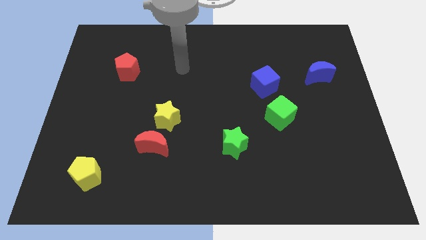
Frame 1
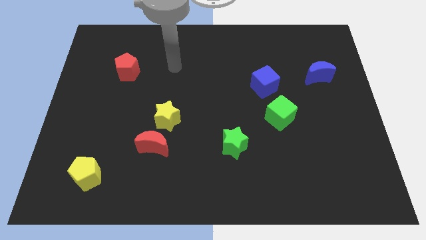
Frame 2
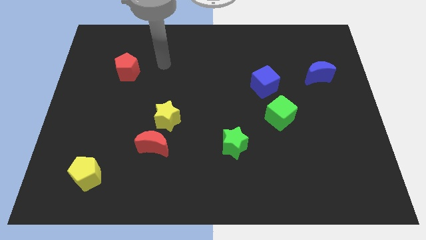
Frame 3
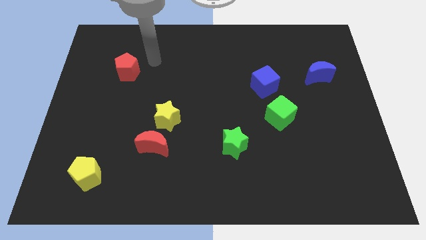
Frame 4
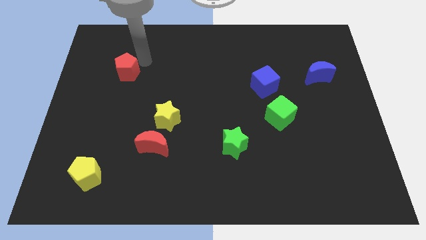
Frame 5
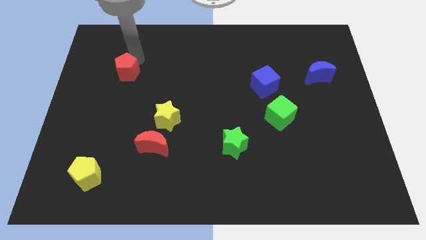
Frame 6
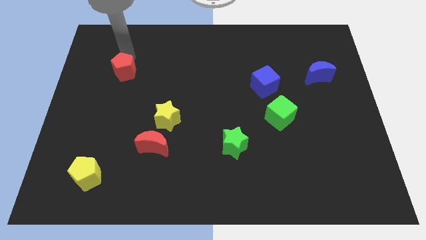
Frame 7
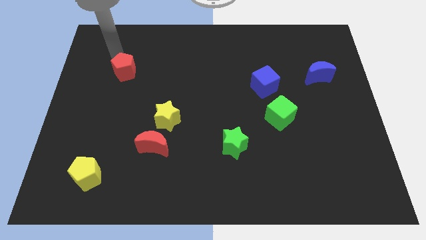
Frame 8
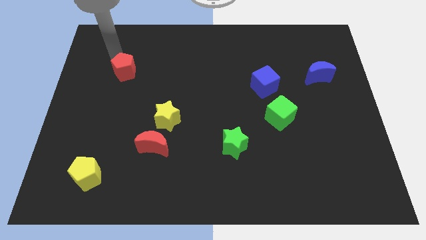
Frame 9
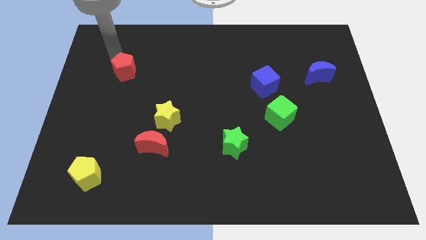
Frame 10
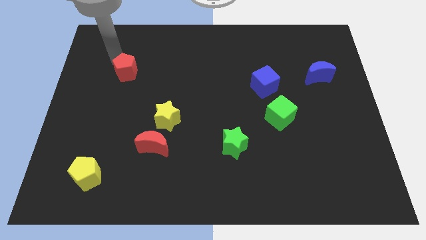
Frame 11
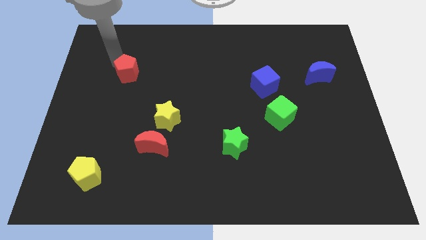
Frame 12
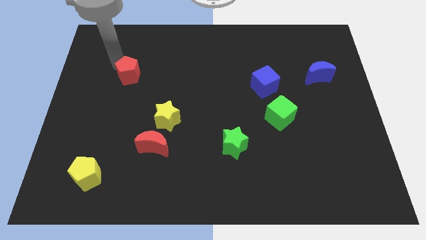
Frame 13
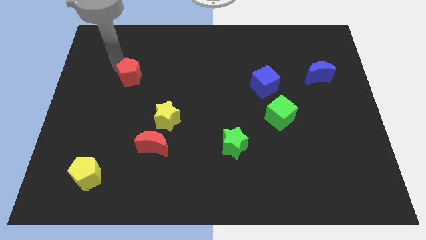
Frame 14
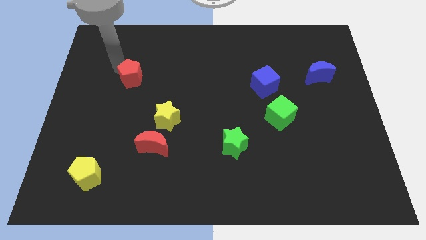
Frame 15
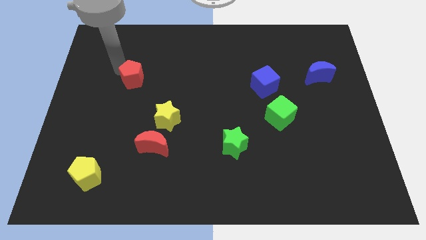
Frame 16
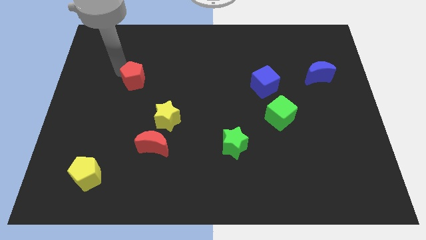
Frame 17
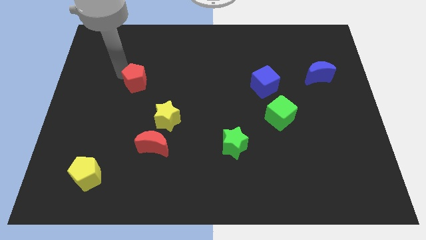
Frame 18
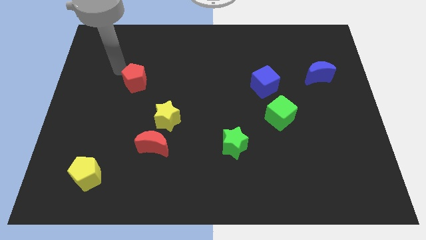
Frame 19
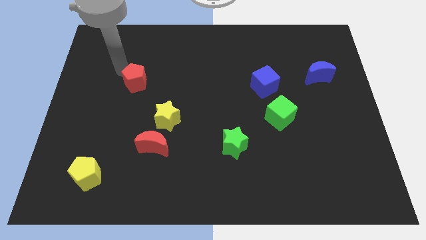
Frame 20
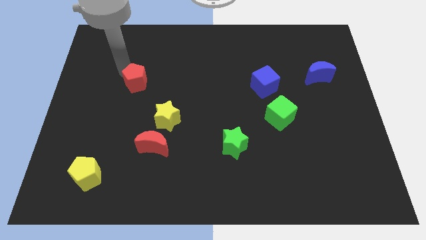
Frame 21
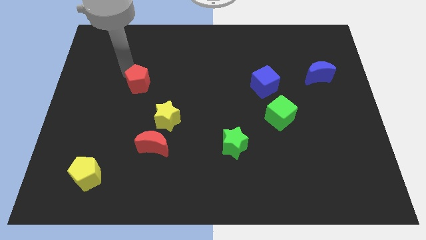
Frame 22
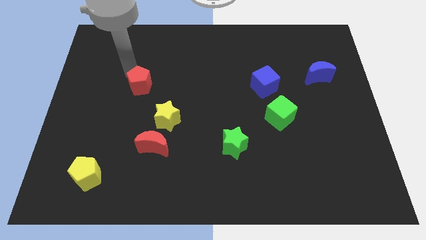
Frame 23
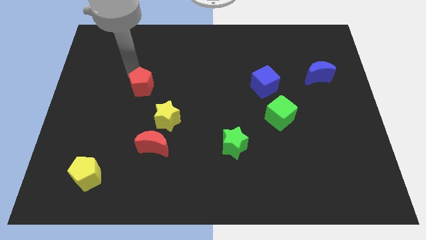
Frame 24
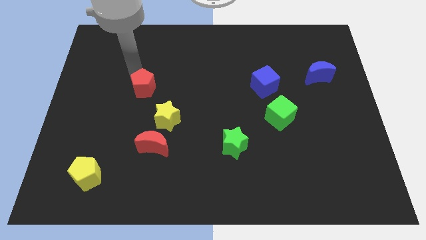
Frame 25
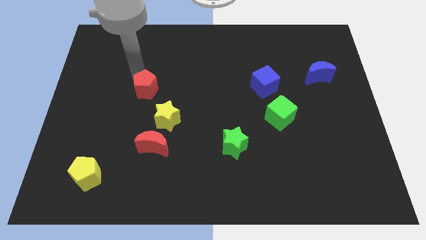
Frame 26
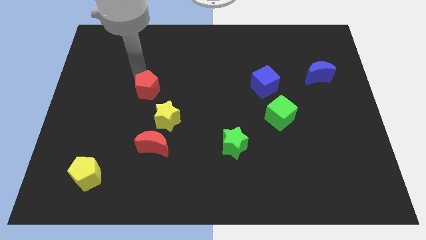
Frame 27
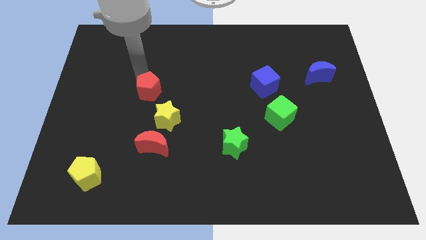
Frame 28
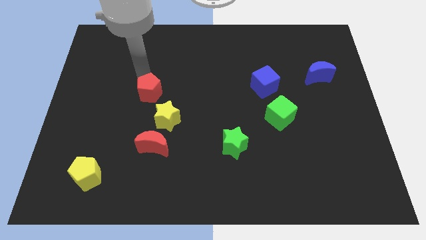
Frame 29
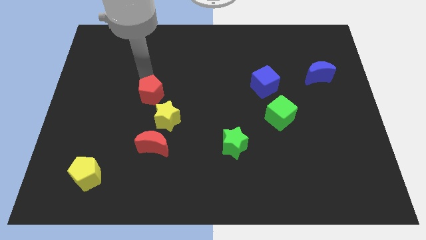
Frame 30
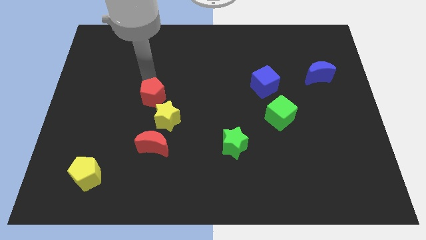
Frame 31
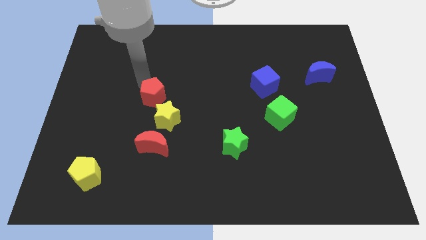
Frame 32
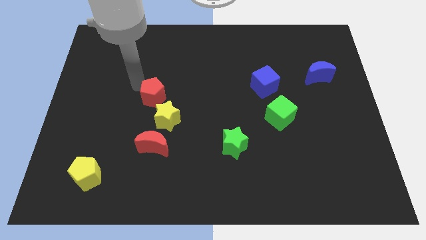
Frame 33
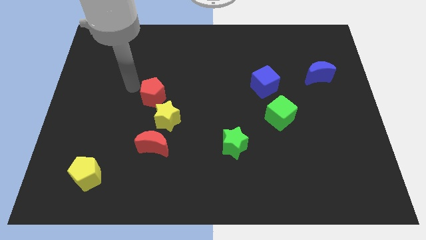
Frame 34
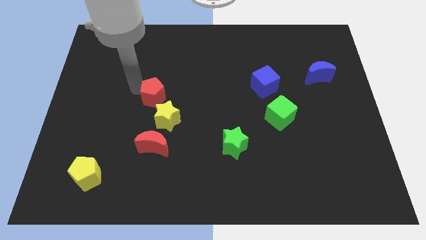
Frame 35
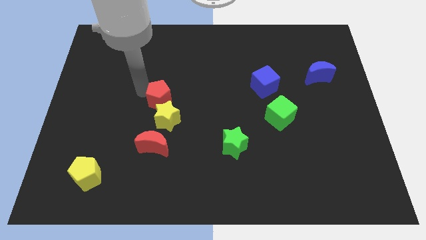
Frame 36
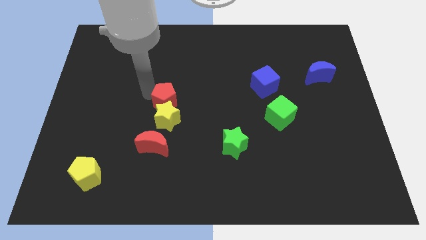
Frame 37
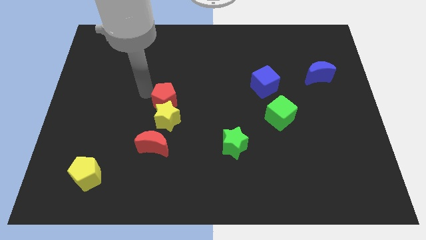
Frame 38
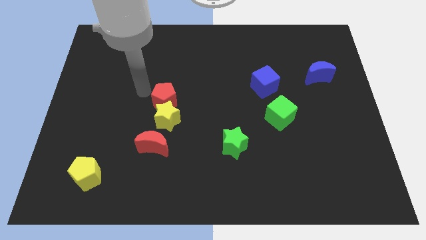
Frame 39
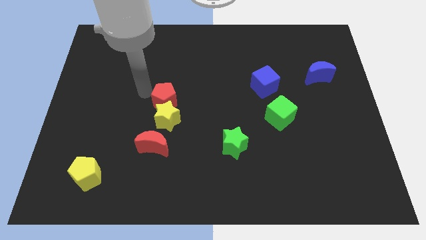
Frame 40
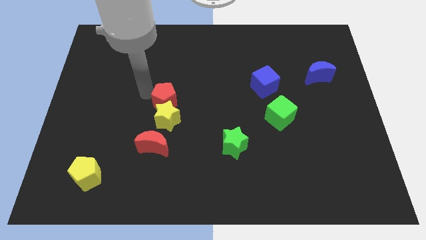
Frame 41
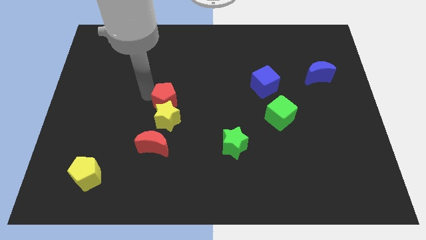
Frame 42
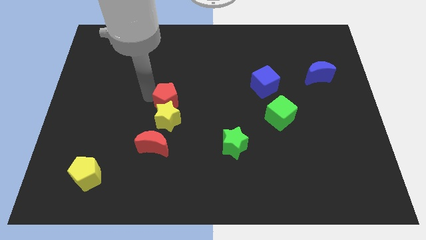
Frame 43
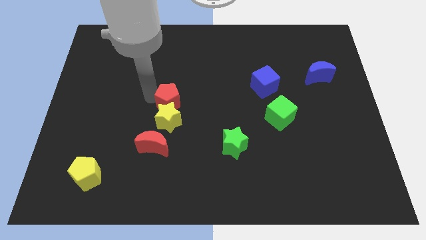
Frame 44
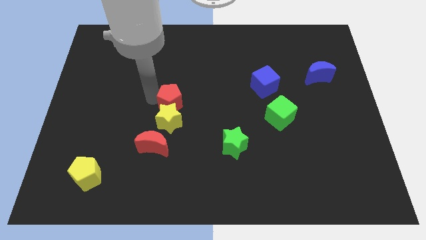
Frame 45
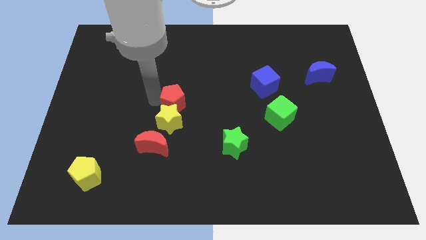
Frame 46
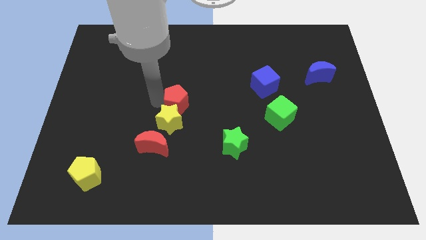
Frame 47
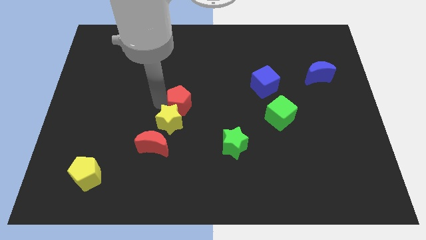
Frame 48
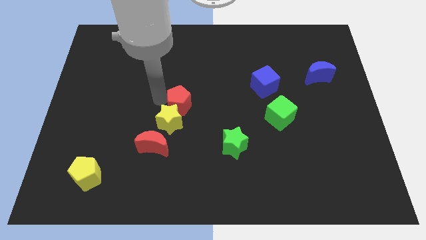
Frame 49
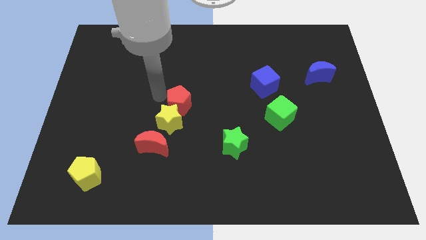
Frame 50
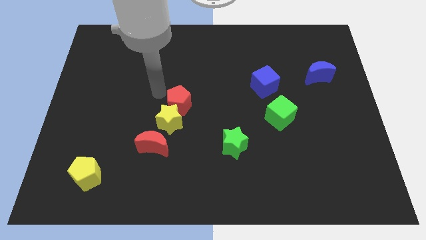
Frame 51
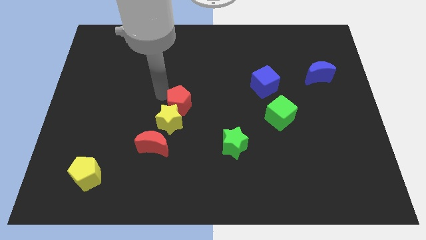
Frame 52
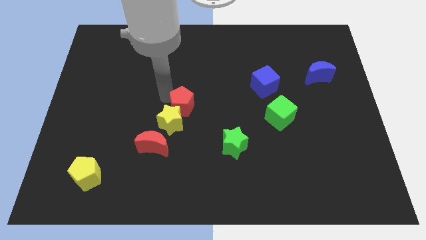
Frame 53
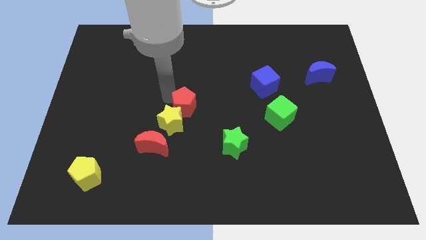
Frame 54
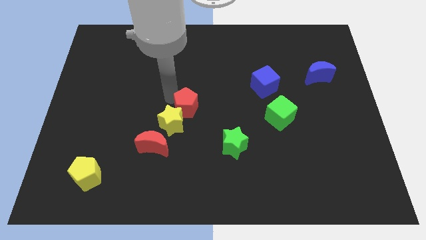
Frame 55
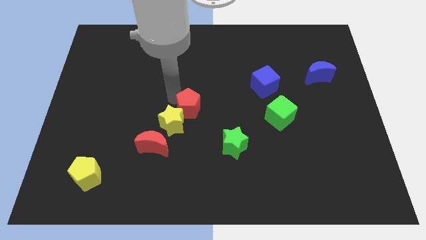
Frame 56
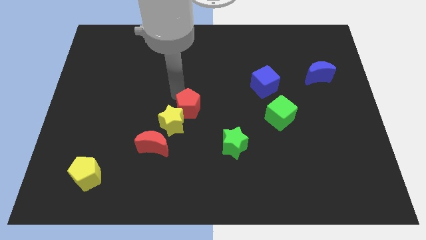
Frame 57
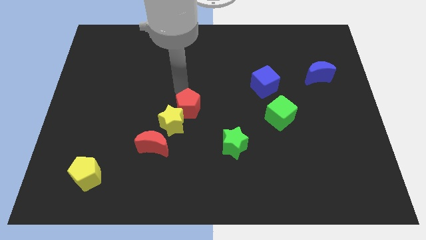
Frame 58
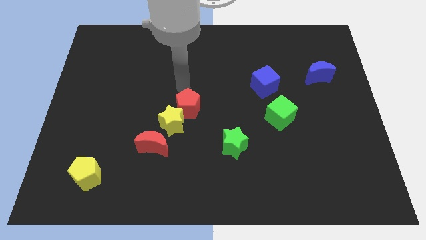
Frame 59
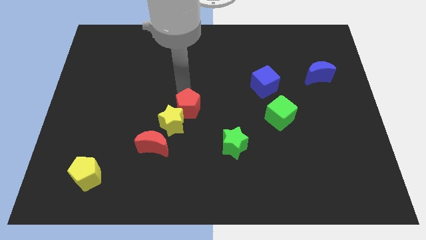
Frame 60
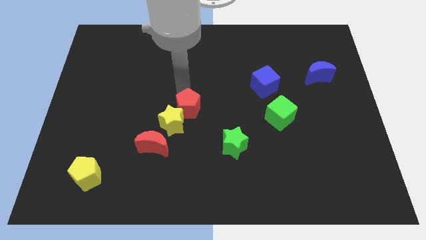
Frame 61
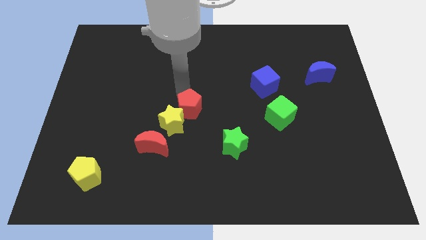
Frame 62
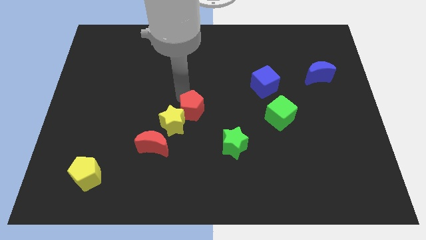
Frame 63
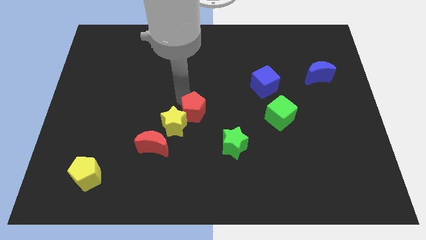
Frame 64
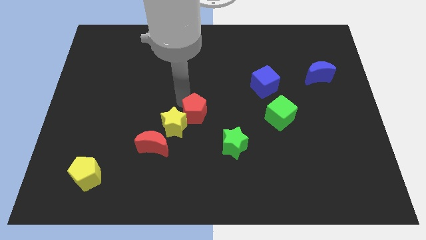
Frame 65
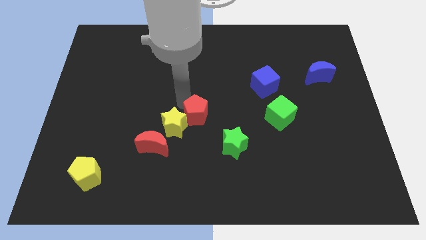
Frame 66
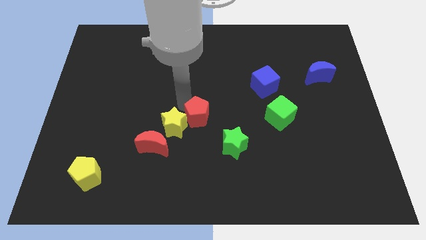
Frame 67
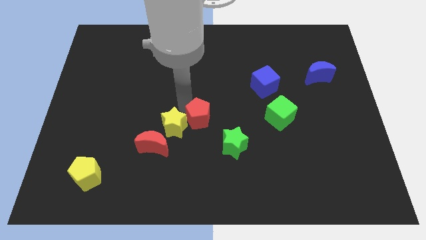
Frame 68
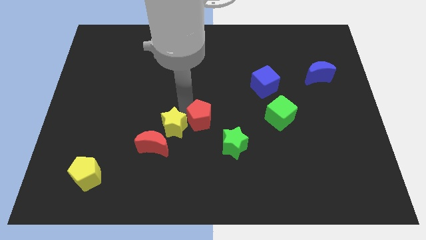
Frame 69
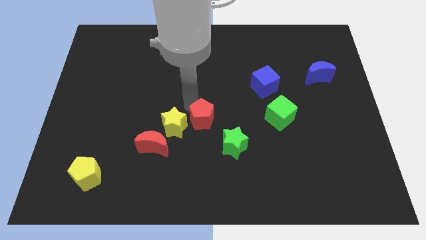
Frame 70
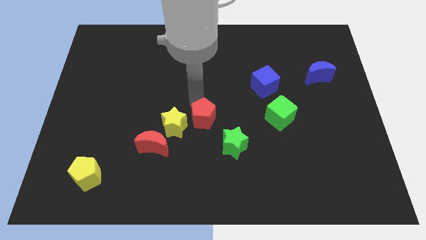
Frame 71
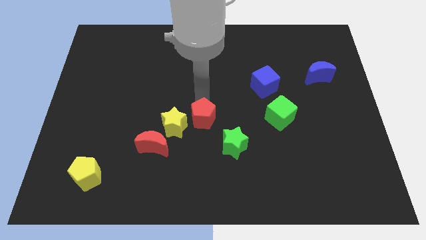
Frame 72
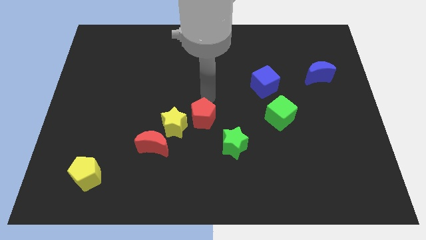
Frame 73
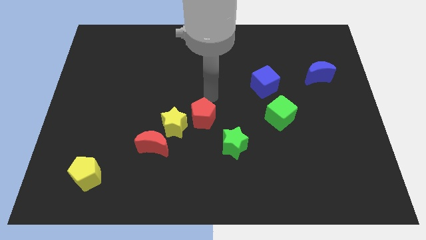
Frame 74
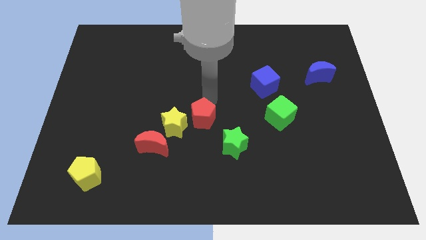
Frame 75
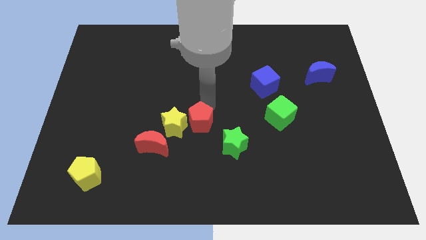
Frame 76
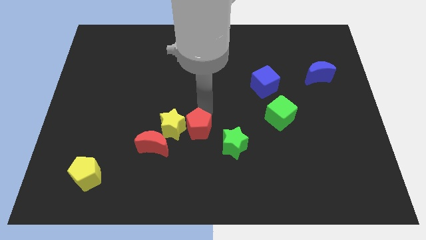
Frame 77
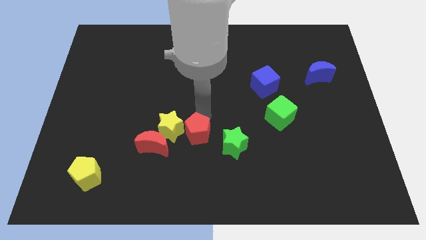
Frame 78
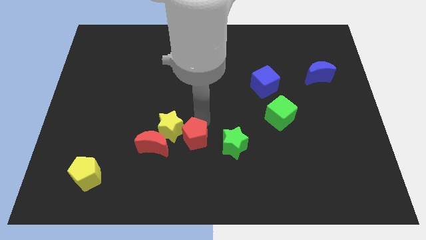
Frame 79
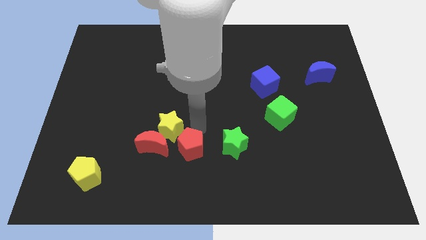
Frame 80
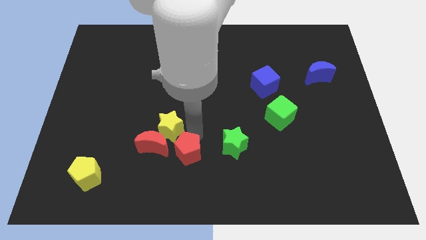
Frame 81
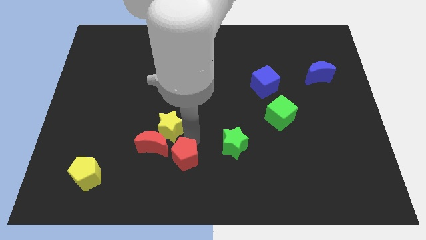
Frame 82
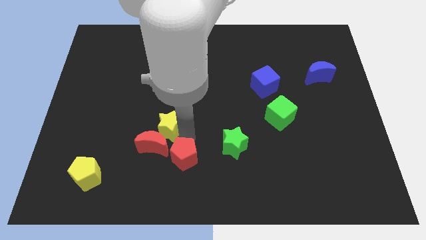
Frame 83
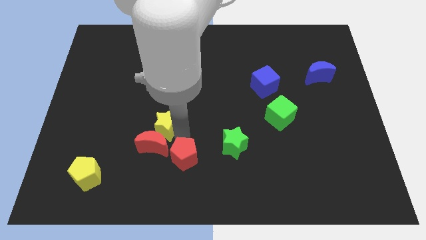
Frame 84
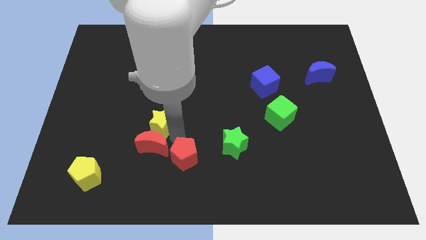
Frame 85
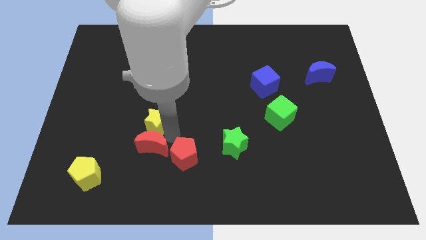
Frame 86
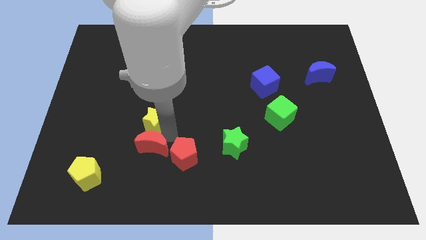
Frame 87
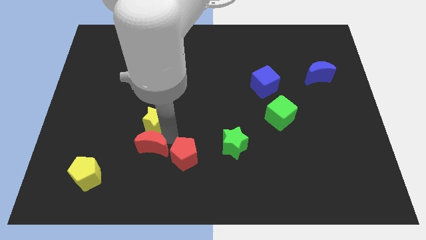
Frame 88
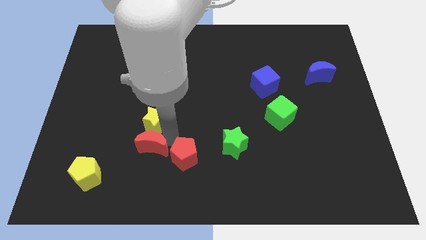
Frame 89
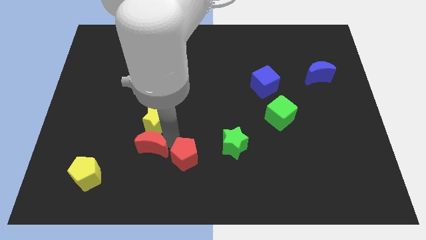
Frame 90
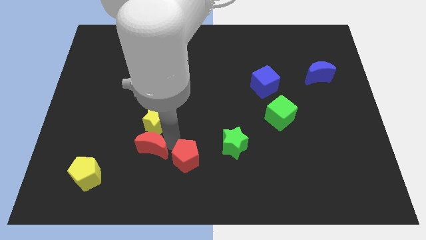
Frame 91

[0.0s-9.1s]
put the red pentagon to the bottom
